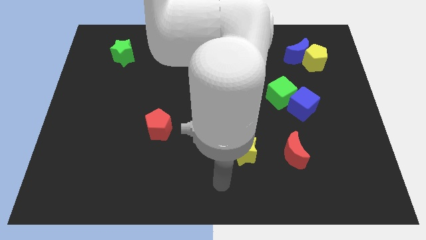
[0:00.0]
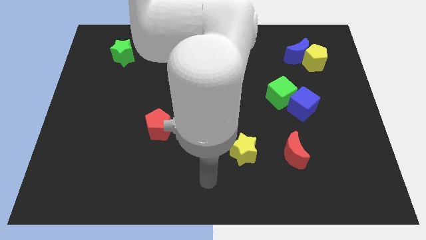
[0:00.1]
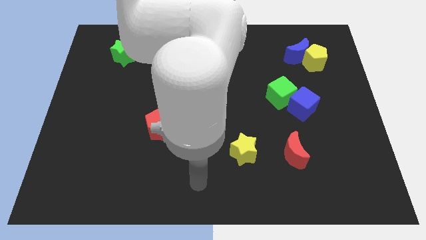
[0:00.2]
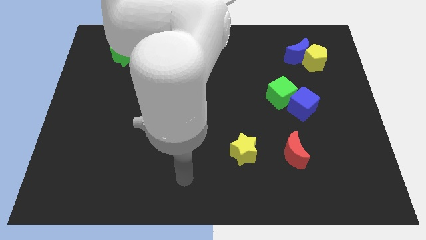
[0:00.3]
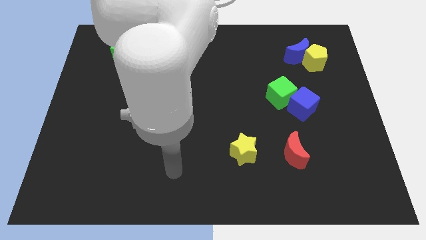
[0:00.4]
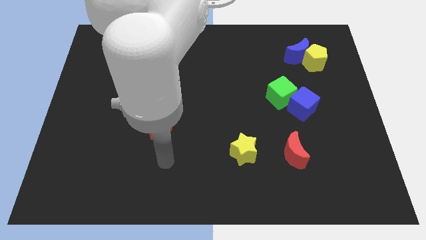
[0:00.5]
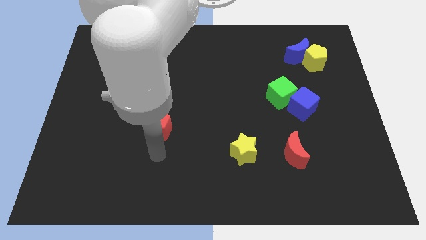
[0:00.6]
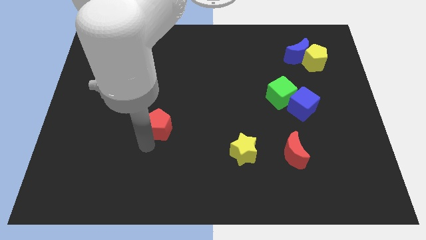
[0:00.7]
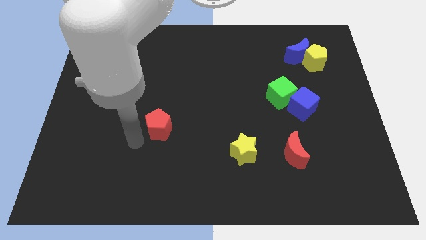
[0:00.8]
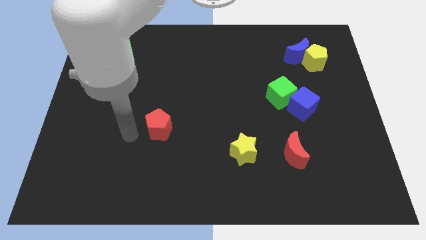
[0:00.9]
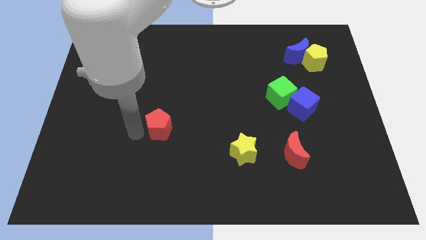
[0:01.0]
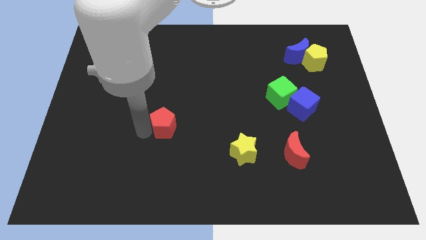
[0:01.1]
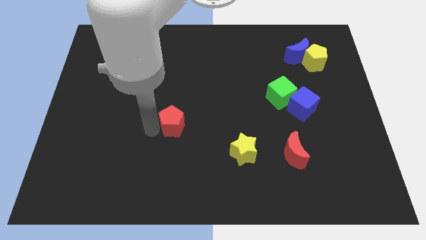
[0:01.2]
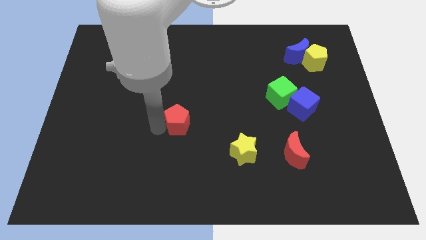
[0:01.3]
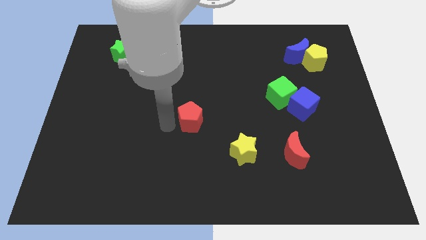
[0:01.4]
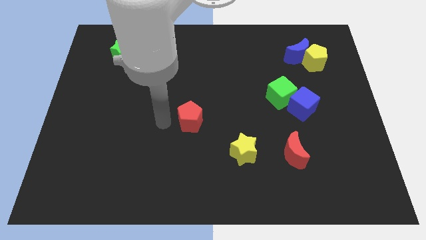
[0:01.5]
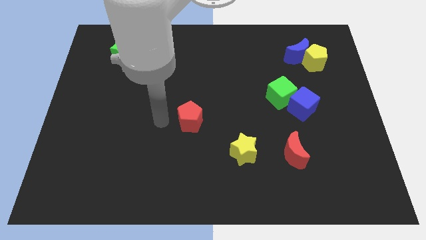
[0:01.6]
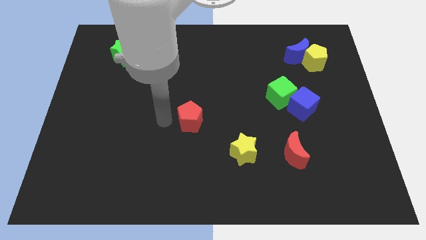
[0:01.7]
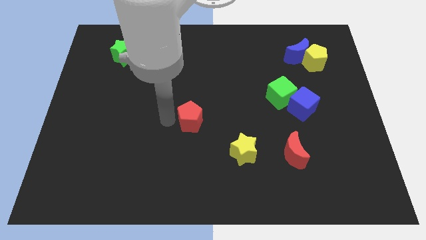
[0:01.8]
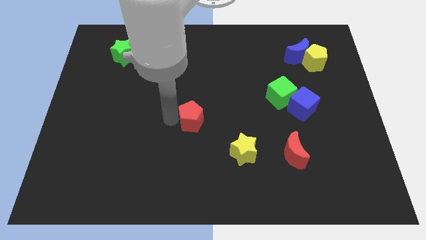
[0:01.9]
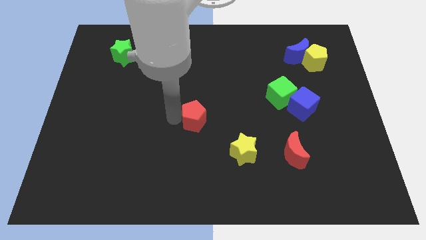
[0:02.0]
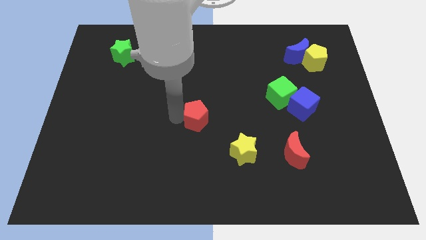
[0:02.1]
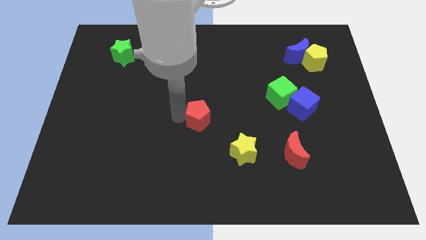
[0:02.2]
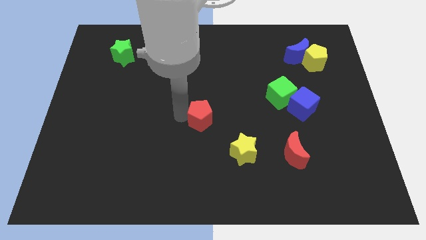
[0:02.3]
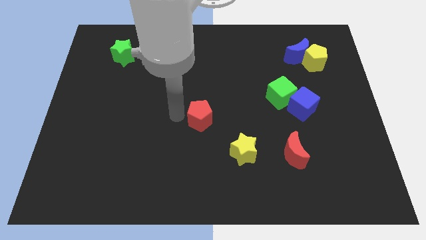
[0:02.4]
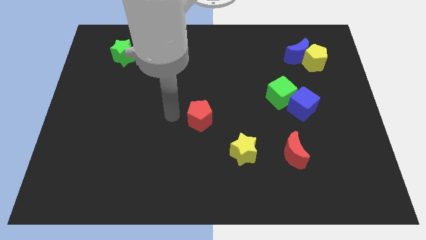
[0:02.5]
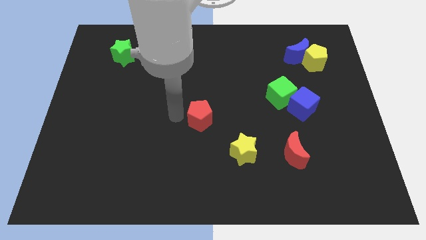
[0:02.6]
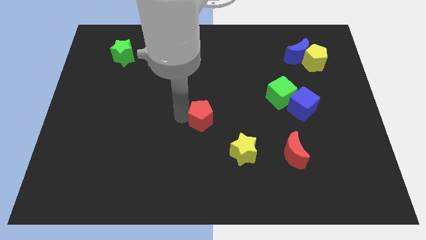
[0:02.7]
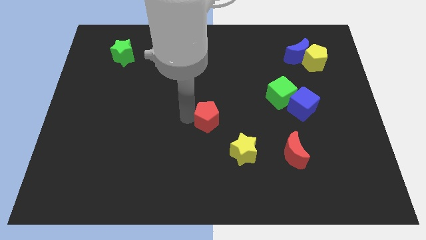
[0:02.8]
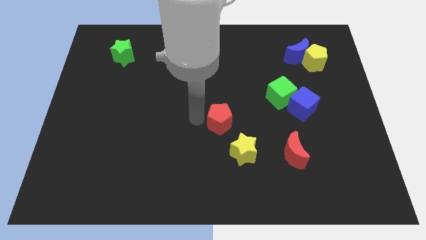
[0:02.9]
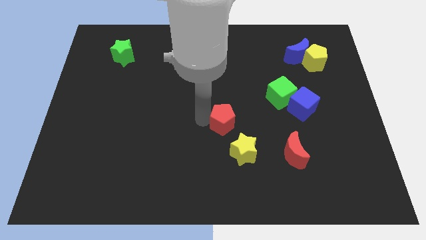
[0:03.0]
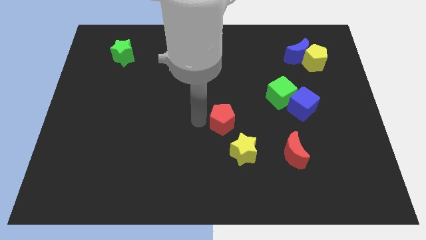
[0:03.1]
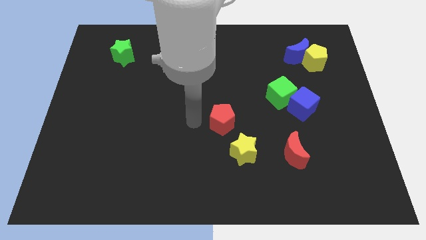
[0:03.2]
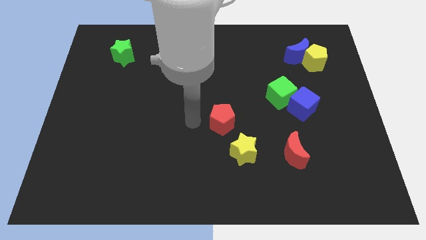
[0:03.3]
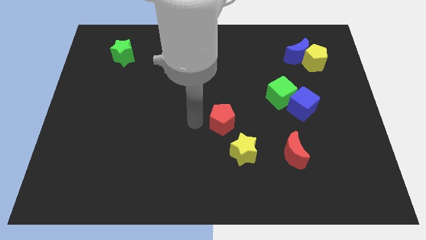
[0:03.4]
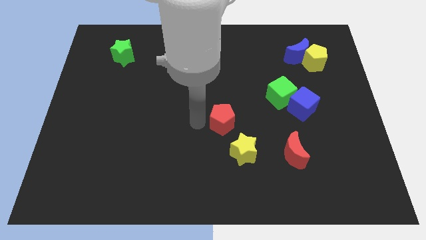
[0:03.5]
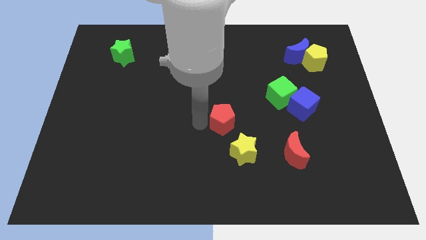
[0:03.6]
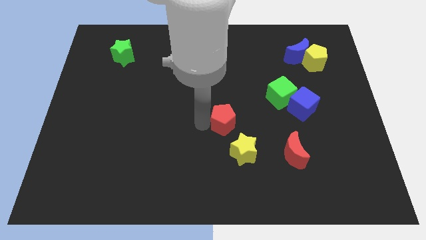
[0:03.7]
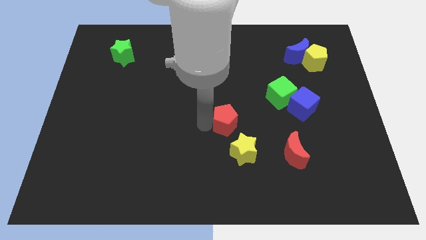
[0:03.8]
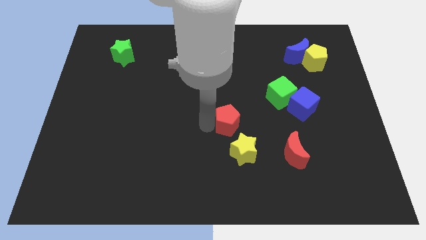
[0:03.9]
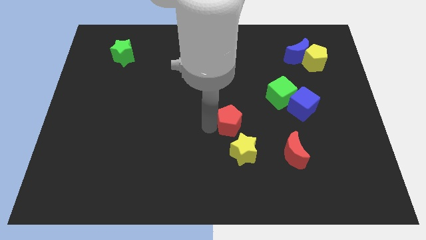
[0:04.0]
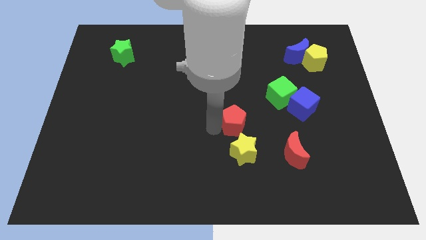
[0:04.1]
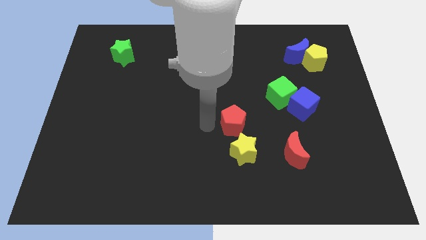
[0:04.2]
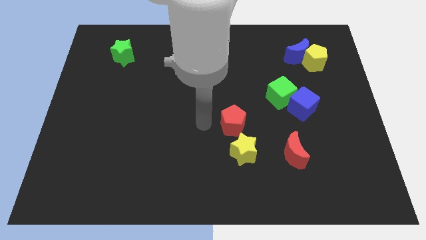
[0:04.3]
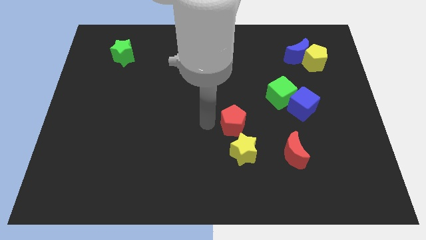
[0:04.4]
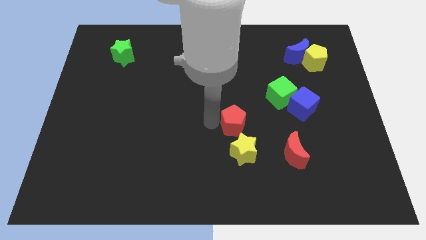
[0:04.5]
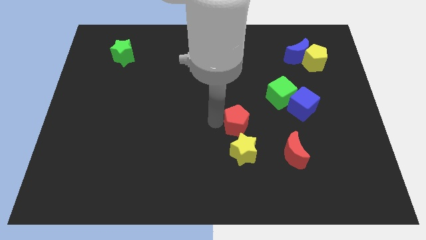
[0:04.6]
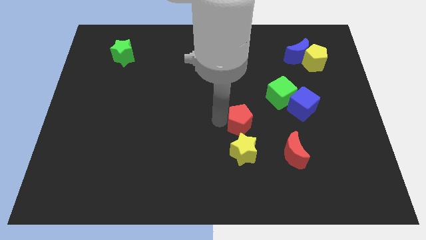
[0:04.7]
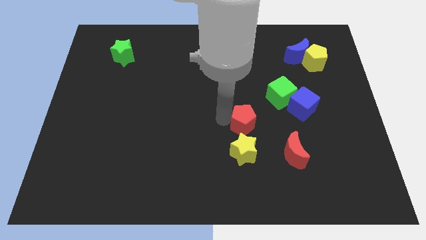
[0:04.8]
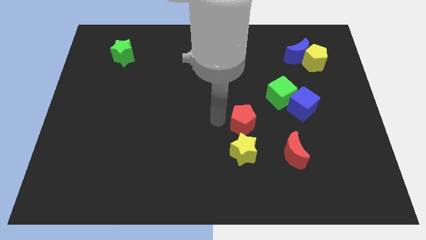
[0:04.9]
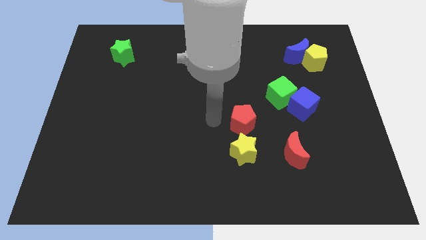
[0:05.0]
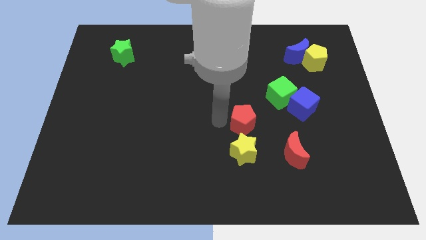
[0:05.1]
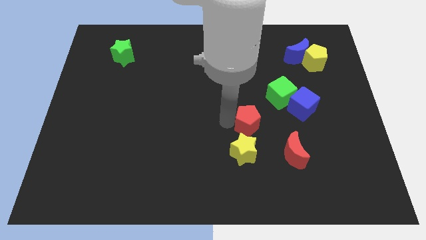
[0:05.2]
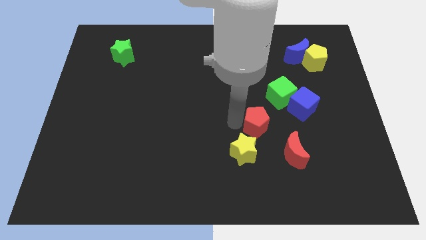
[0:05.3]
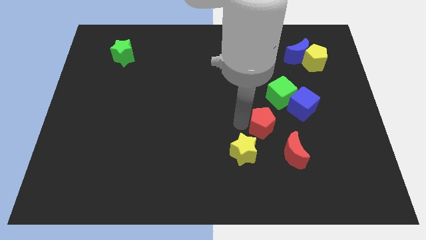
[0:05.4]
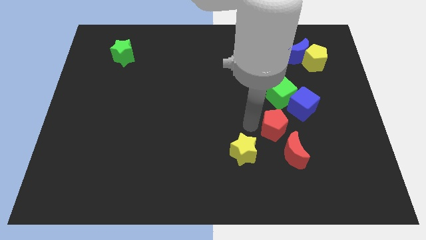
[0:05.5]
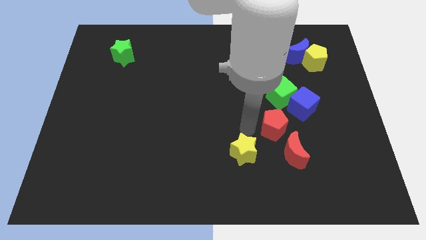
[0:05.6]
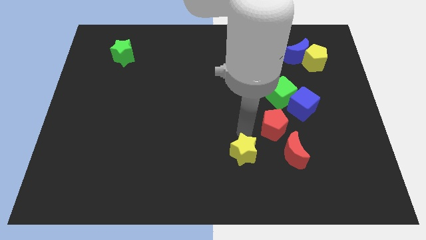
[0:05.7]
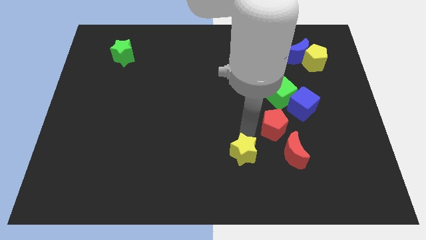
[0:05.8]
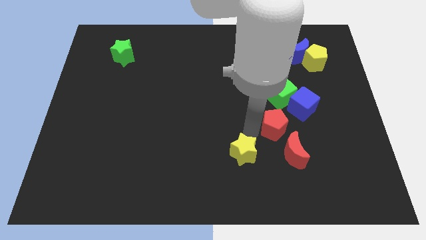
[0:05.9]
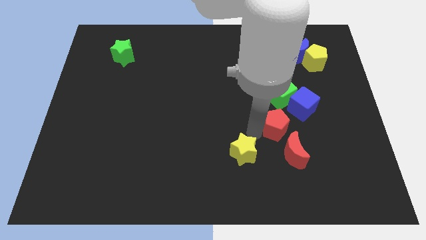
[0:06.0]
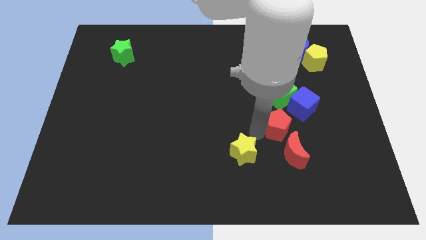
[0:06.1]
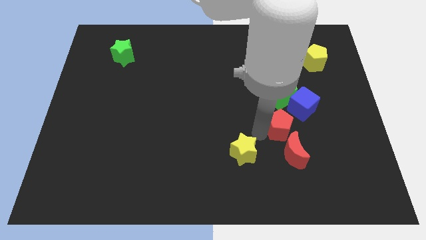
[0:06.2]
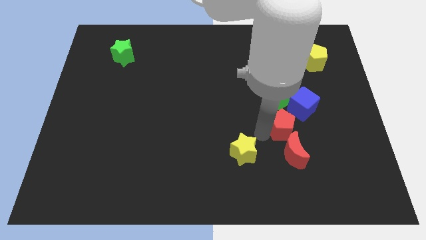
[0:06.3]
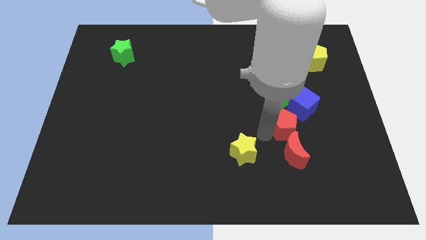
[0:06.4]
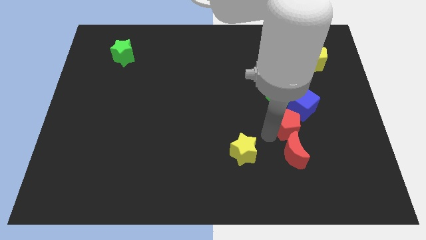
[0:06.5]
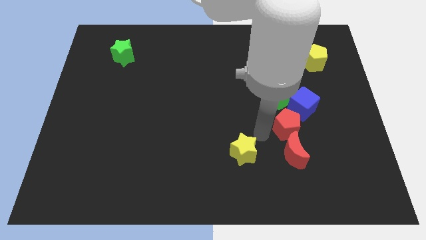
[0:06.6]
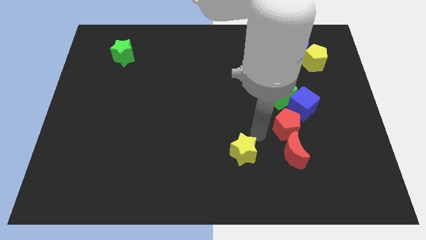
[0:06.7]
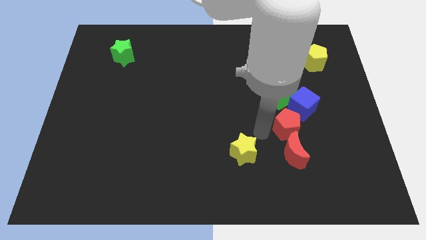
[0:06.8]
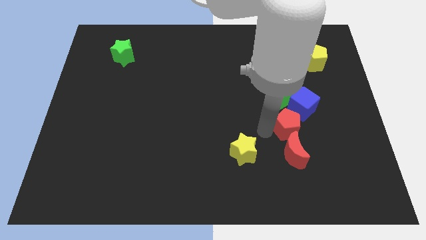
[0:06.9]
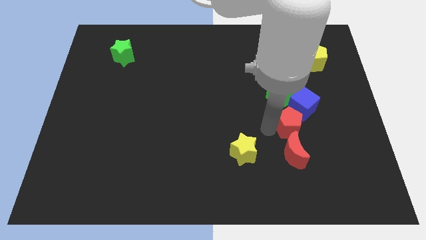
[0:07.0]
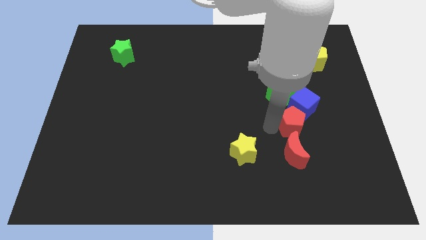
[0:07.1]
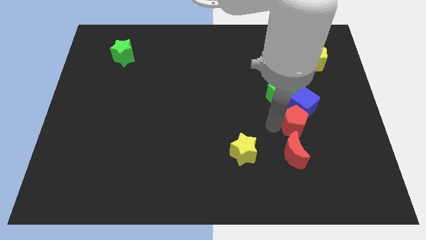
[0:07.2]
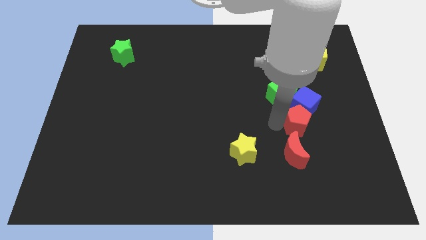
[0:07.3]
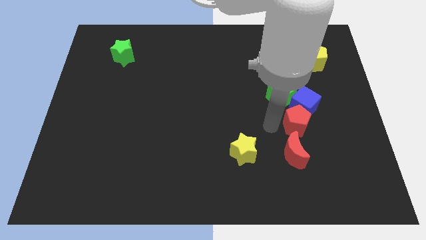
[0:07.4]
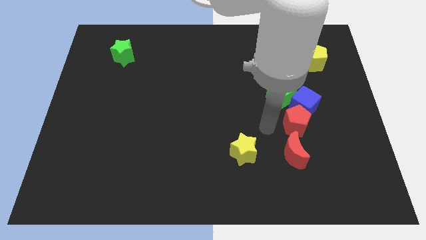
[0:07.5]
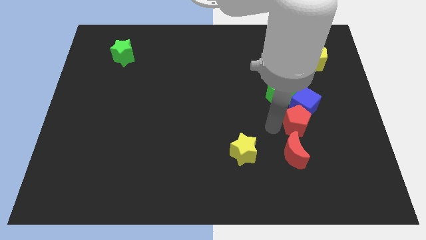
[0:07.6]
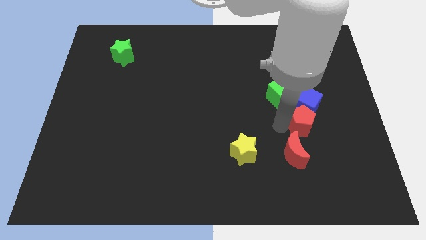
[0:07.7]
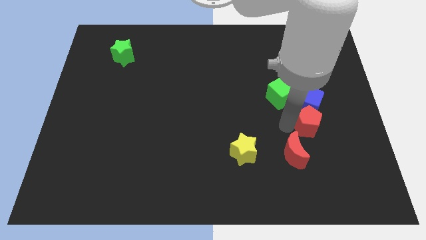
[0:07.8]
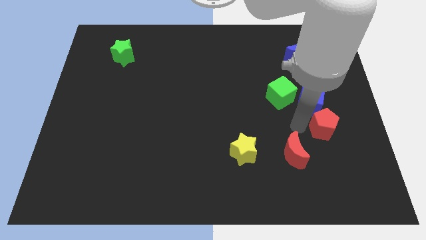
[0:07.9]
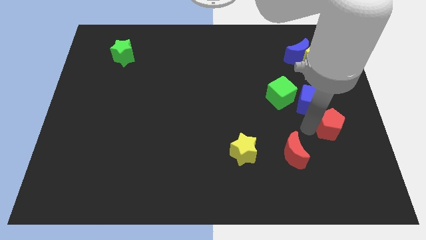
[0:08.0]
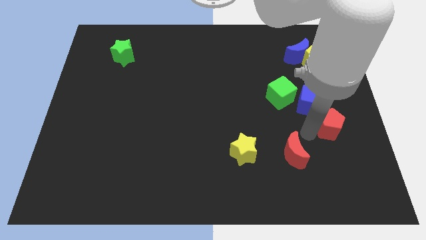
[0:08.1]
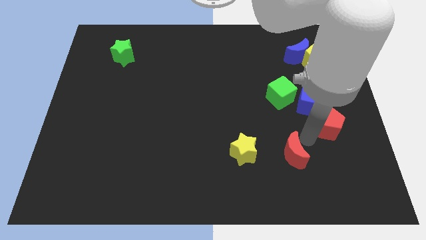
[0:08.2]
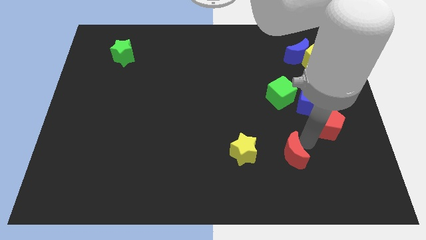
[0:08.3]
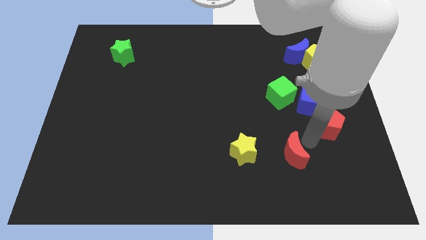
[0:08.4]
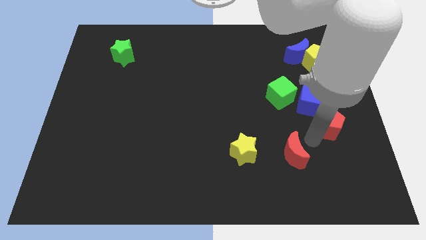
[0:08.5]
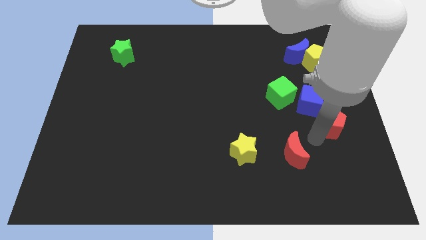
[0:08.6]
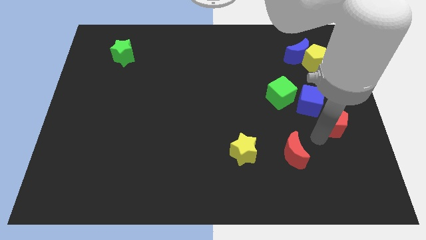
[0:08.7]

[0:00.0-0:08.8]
put the red pentagon to the right side of the board
